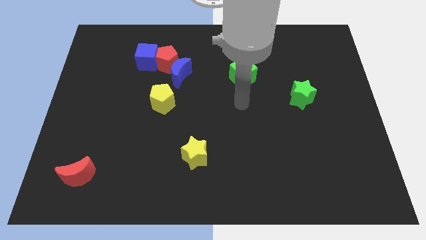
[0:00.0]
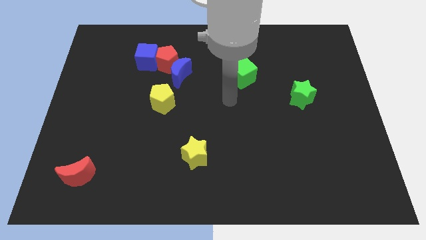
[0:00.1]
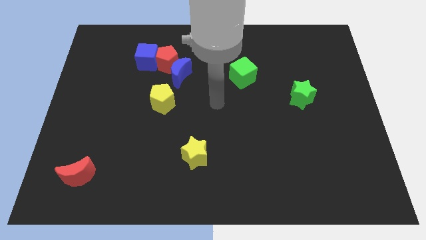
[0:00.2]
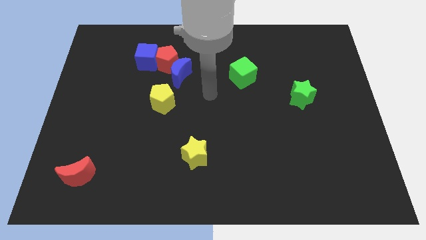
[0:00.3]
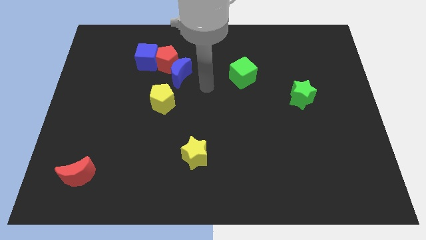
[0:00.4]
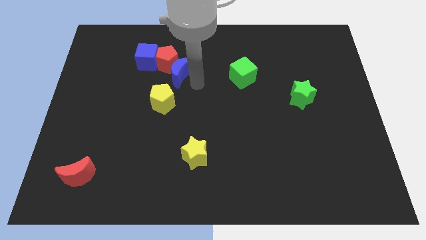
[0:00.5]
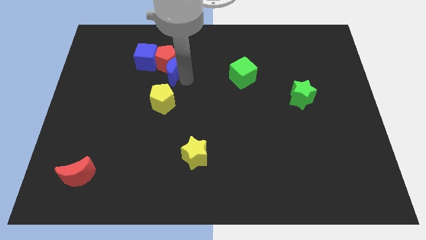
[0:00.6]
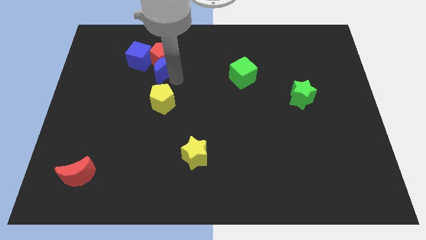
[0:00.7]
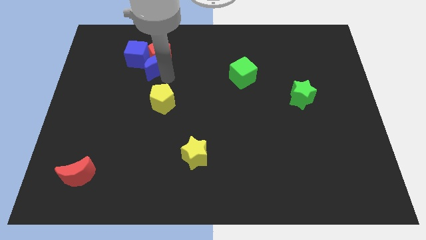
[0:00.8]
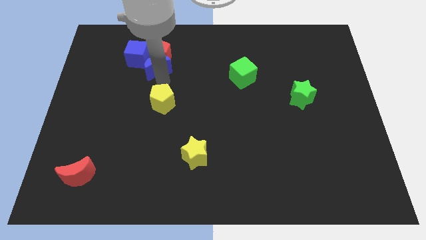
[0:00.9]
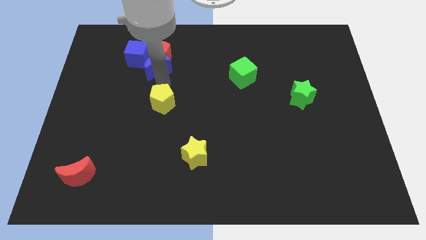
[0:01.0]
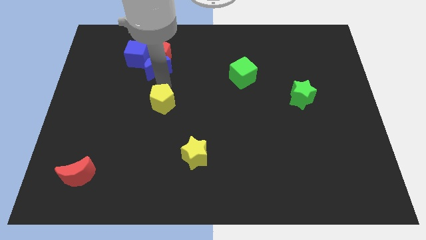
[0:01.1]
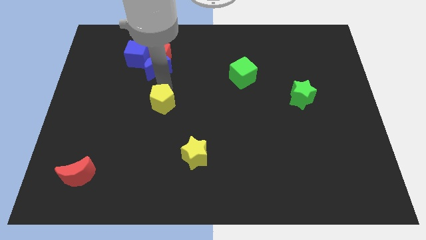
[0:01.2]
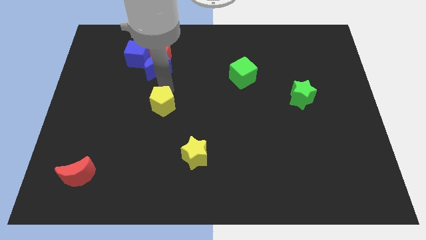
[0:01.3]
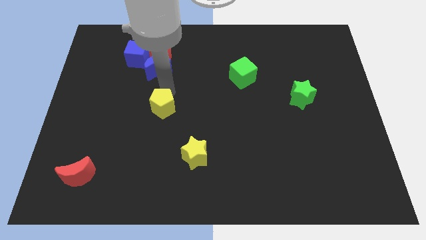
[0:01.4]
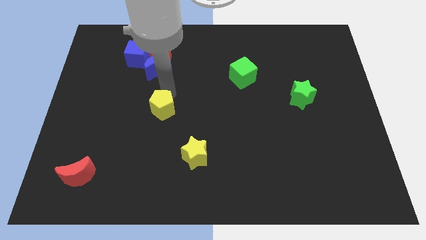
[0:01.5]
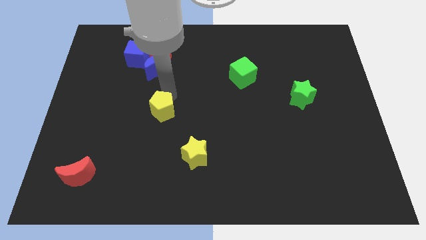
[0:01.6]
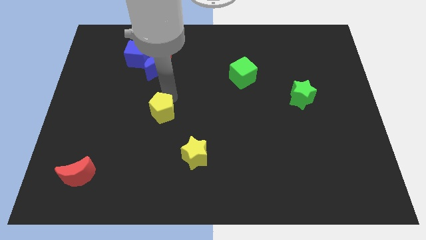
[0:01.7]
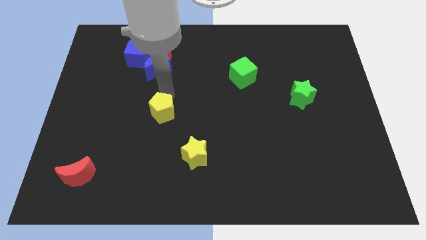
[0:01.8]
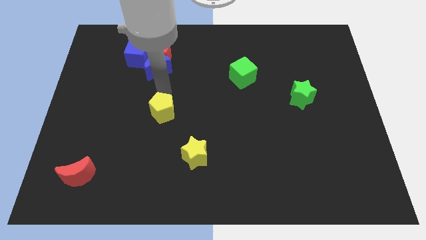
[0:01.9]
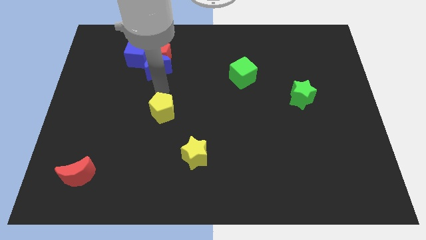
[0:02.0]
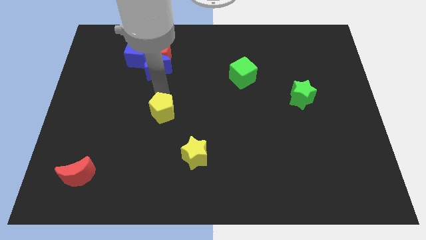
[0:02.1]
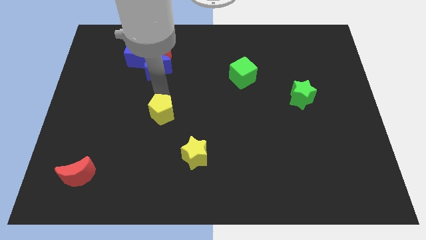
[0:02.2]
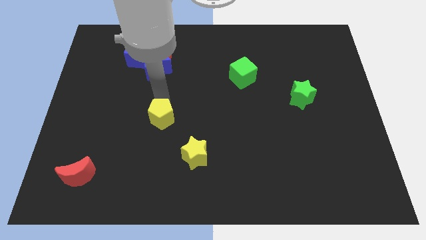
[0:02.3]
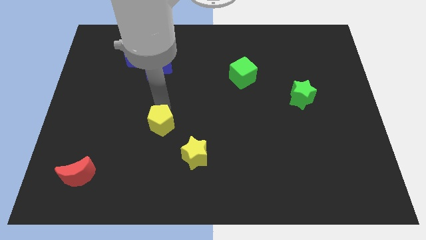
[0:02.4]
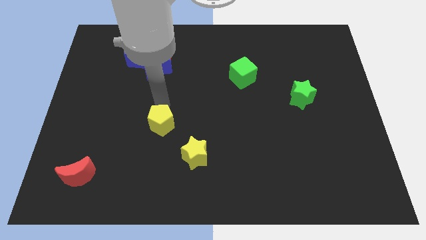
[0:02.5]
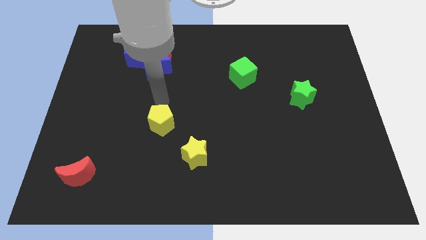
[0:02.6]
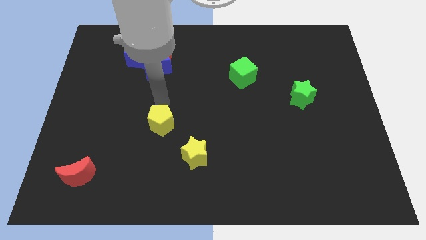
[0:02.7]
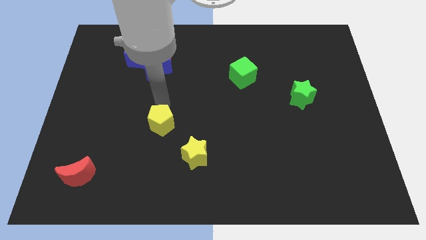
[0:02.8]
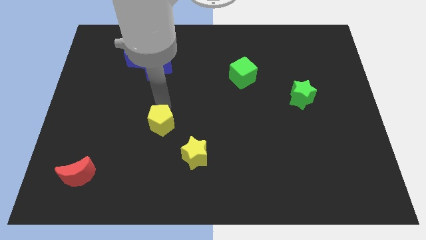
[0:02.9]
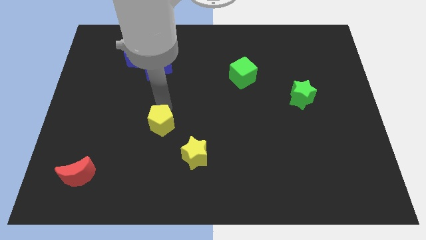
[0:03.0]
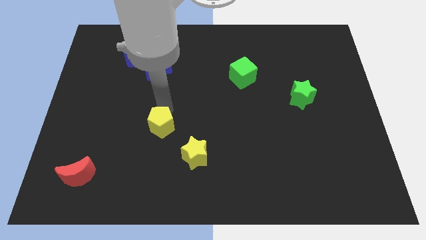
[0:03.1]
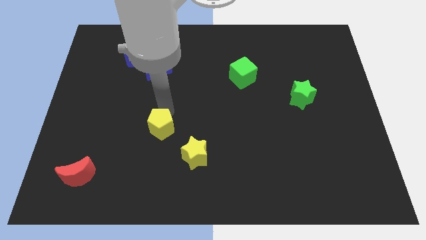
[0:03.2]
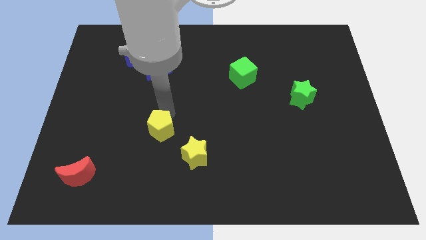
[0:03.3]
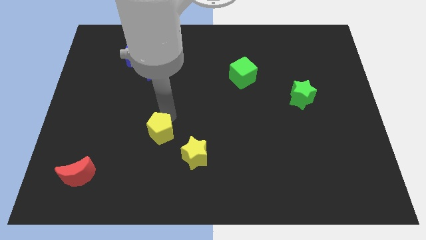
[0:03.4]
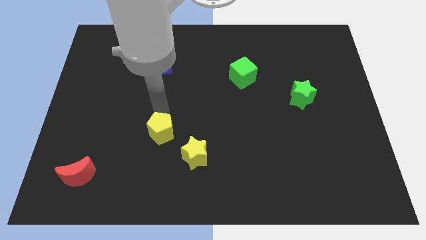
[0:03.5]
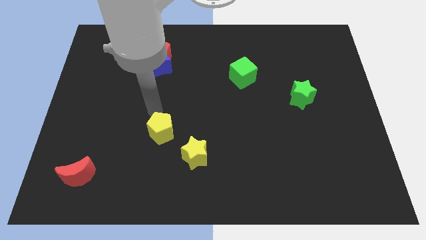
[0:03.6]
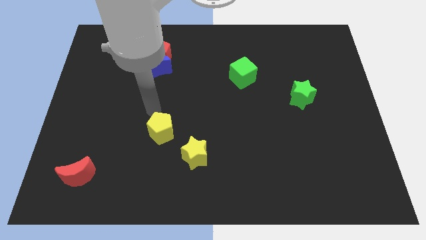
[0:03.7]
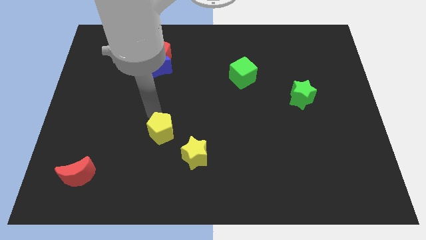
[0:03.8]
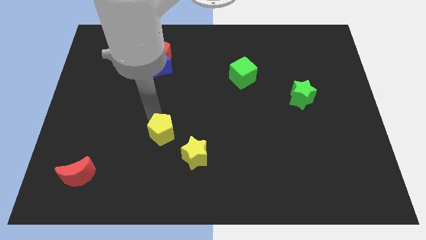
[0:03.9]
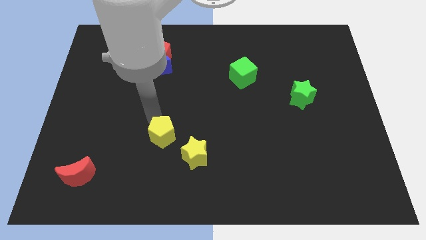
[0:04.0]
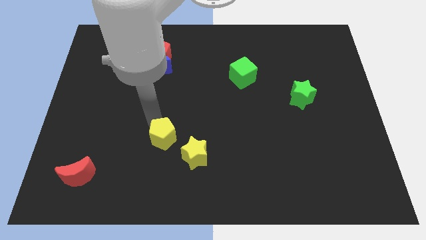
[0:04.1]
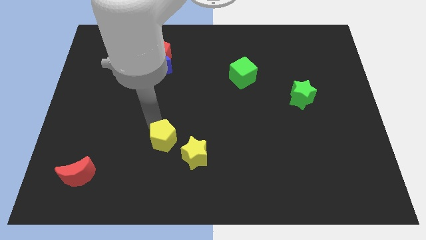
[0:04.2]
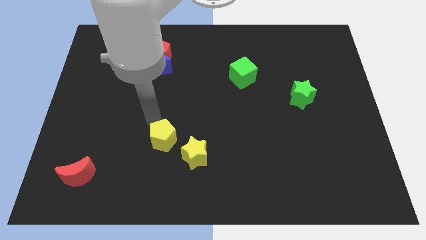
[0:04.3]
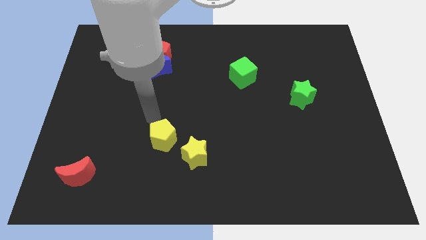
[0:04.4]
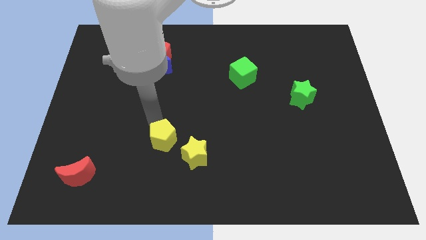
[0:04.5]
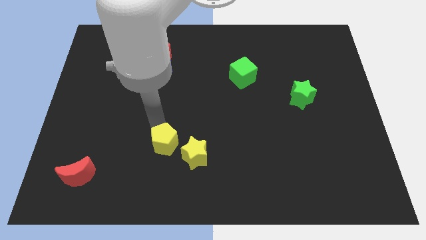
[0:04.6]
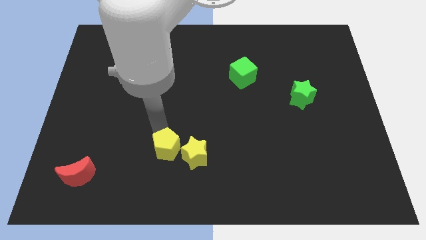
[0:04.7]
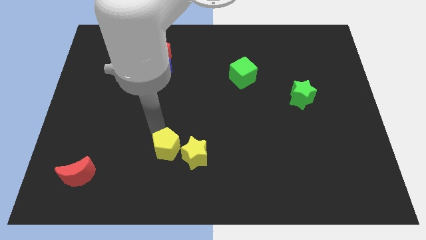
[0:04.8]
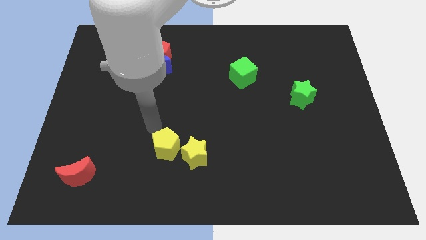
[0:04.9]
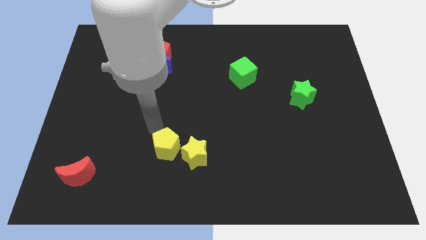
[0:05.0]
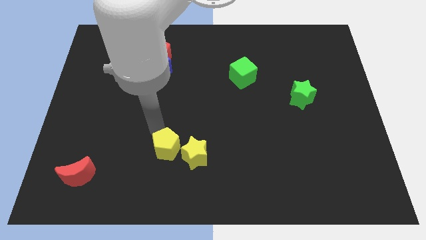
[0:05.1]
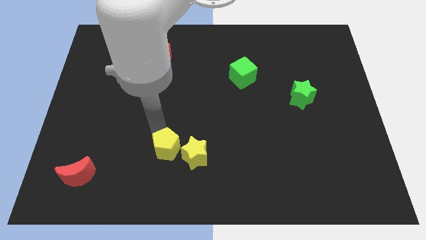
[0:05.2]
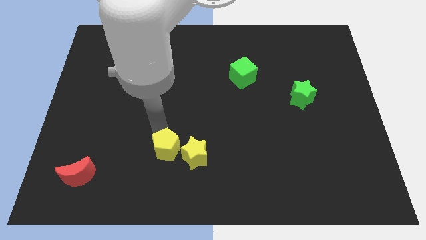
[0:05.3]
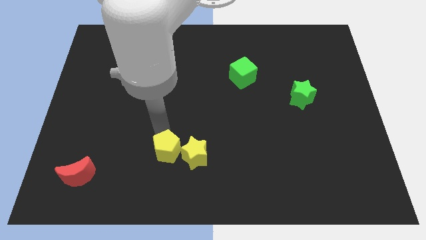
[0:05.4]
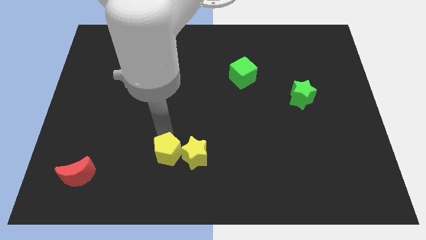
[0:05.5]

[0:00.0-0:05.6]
push the yellow pentagon to the bottom left side of the yellow star

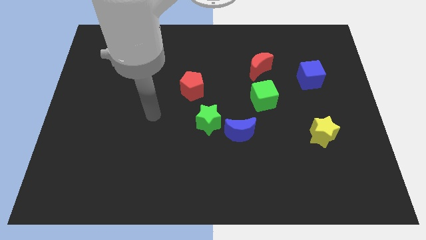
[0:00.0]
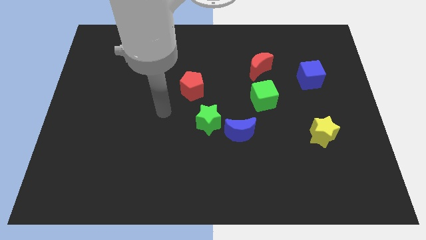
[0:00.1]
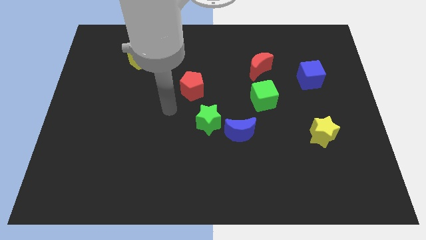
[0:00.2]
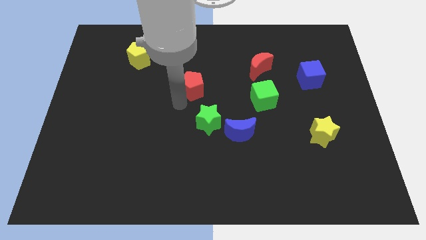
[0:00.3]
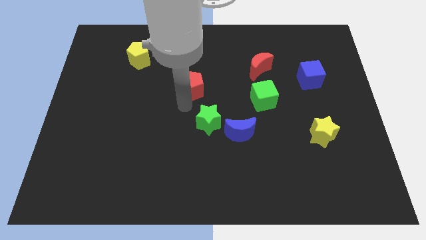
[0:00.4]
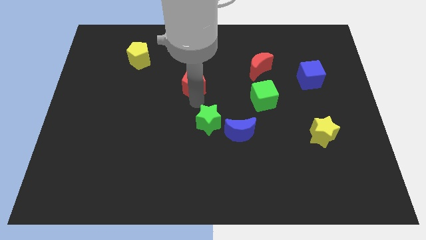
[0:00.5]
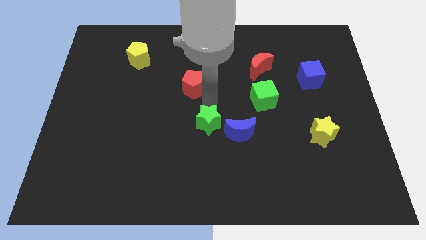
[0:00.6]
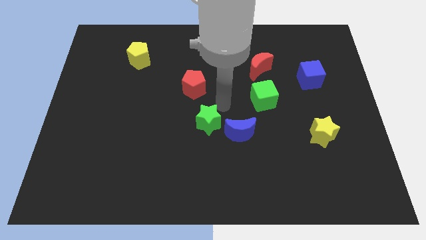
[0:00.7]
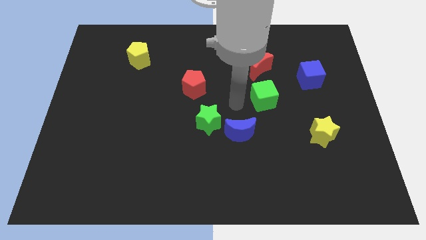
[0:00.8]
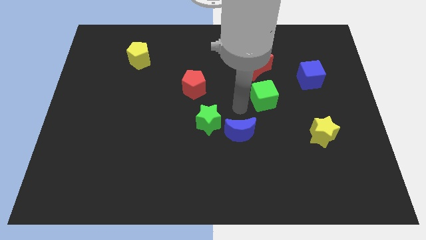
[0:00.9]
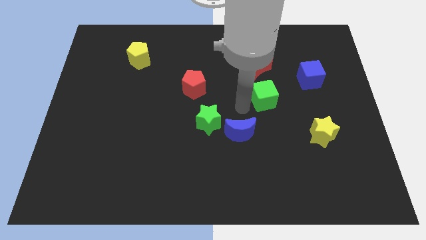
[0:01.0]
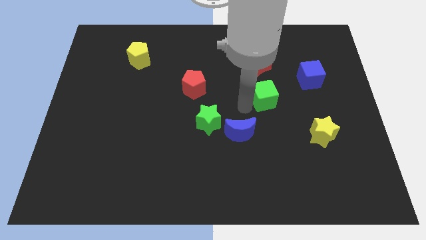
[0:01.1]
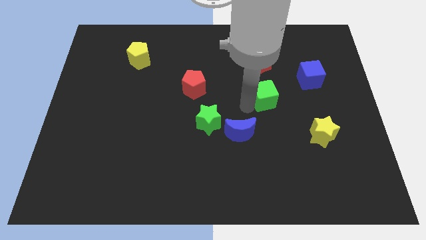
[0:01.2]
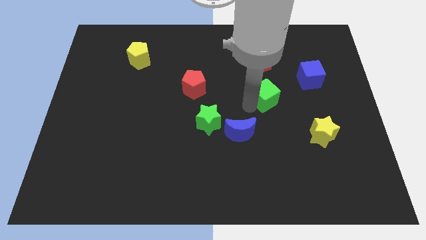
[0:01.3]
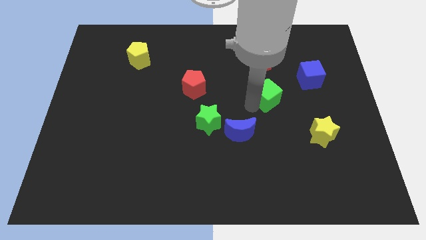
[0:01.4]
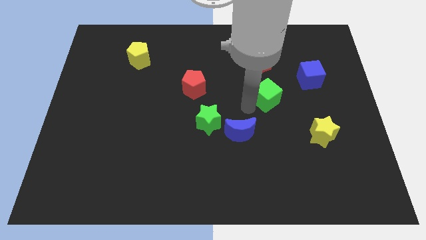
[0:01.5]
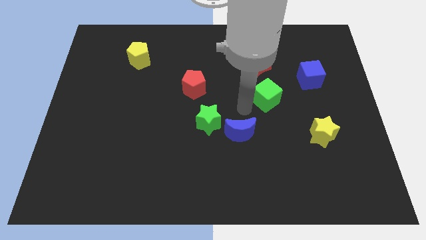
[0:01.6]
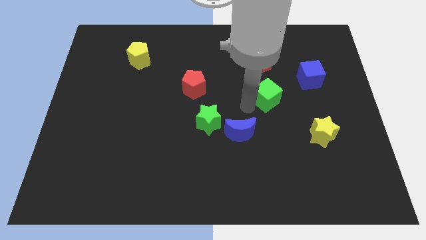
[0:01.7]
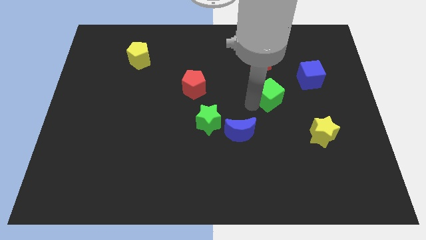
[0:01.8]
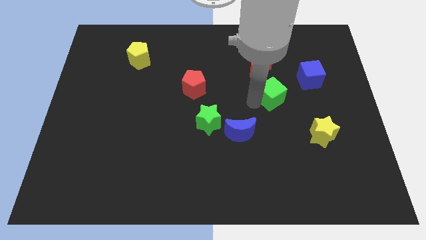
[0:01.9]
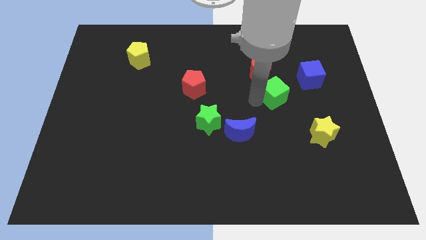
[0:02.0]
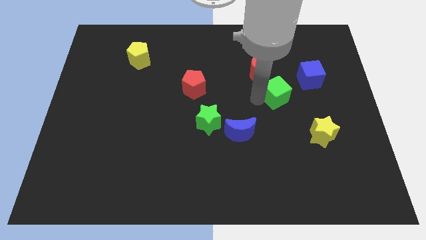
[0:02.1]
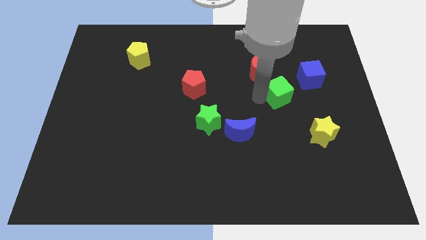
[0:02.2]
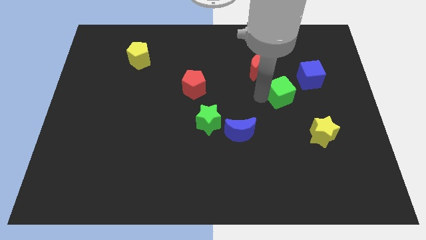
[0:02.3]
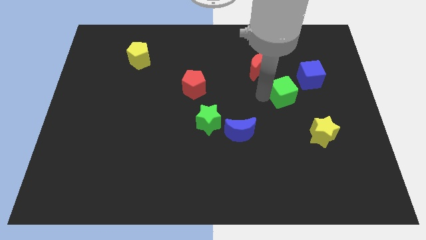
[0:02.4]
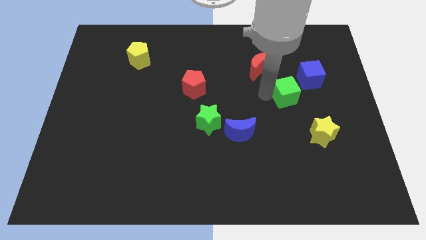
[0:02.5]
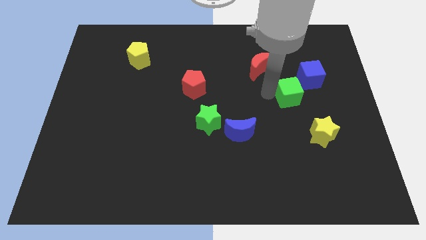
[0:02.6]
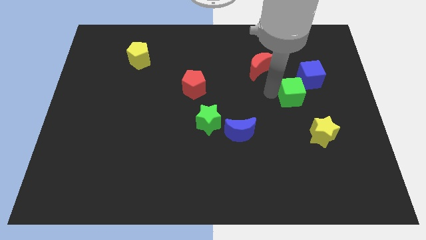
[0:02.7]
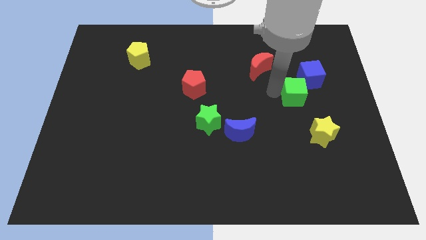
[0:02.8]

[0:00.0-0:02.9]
put the green cube above the yellow star
